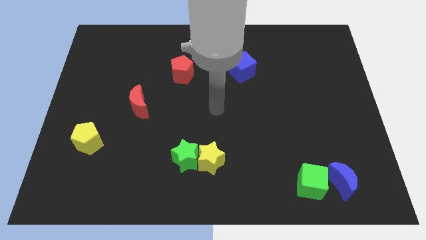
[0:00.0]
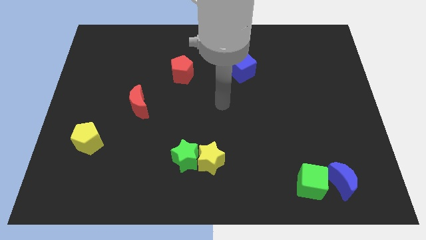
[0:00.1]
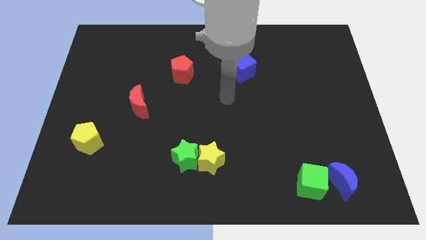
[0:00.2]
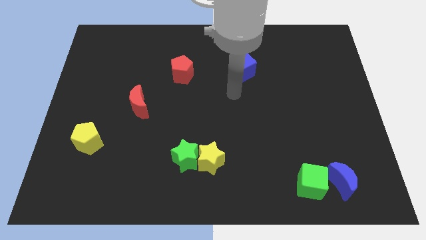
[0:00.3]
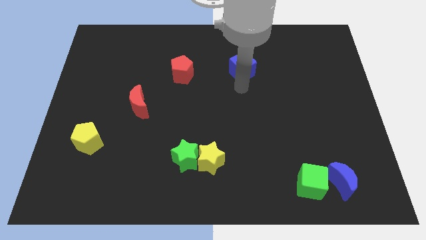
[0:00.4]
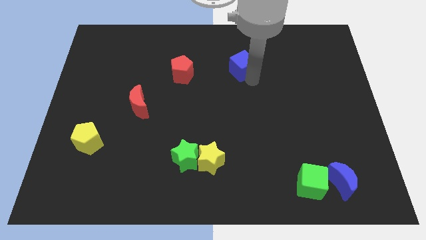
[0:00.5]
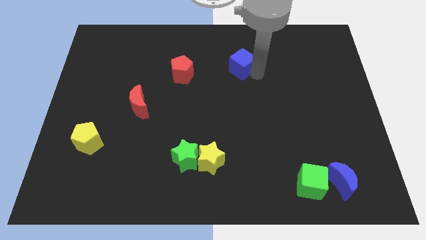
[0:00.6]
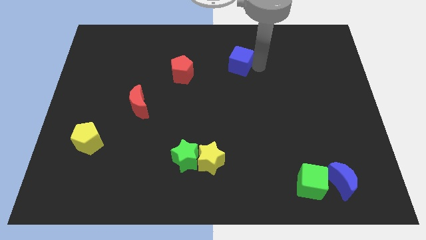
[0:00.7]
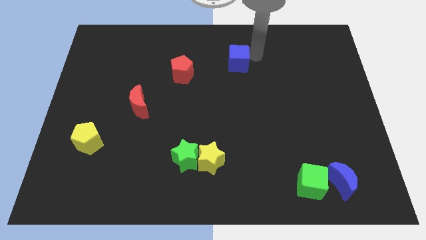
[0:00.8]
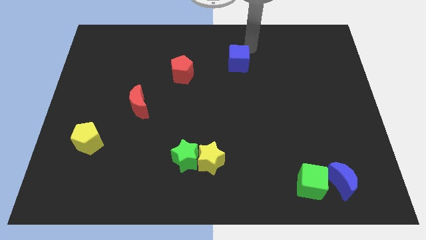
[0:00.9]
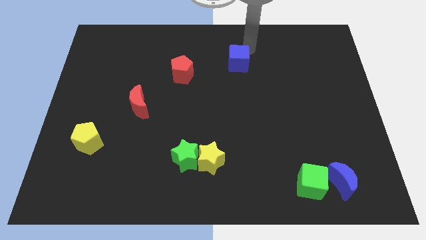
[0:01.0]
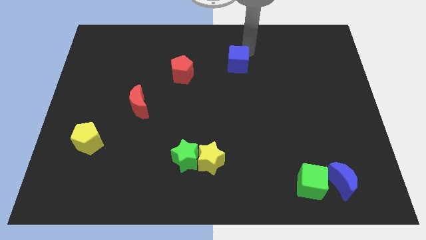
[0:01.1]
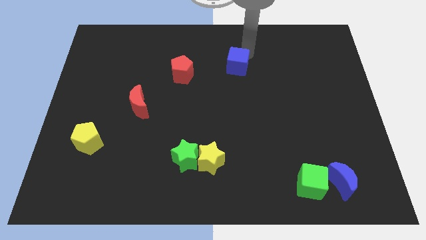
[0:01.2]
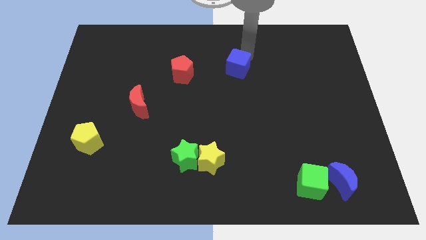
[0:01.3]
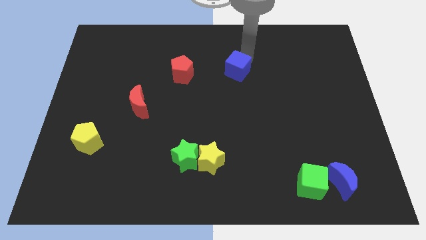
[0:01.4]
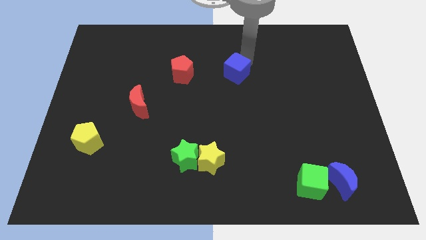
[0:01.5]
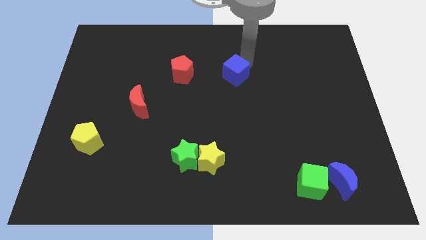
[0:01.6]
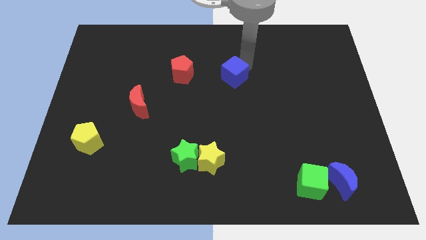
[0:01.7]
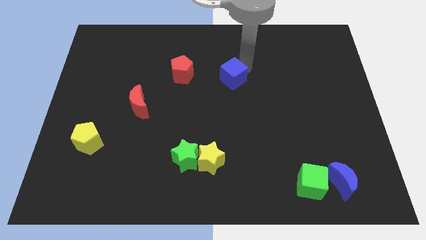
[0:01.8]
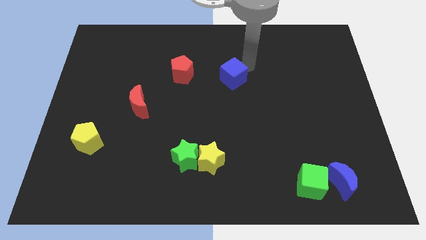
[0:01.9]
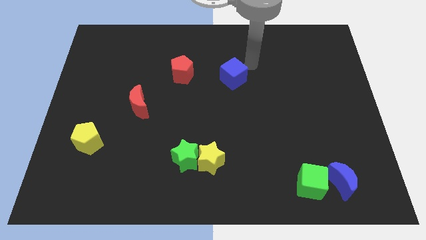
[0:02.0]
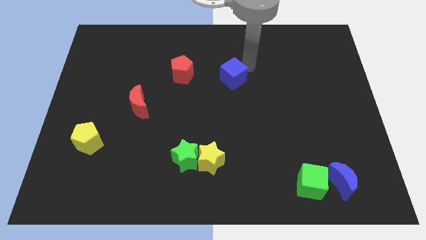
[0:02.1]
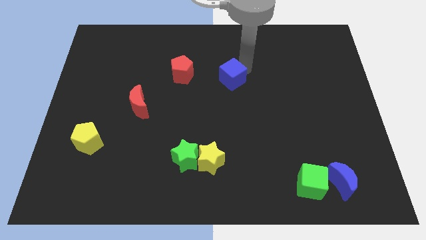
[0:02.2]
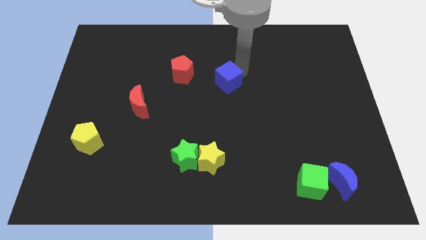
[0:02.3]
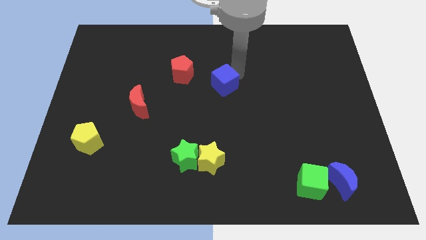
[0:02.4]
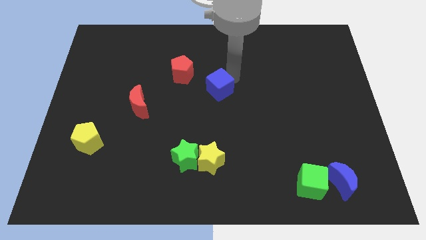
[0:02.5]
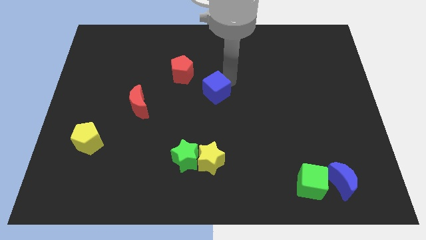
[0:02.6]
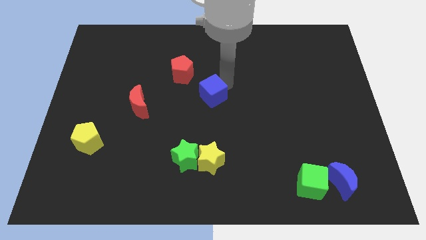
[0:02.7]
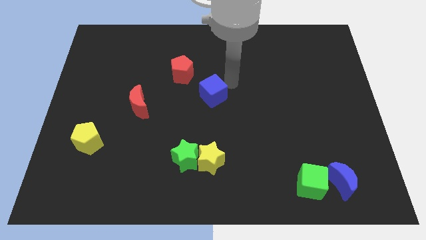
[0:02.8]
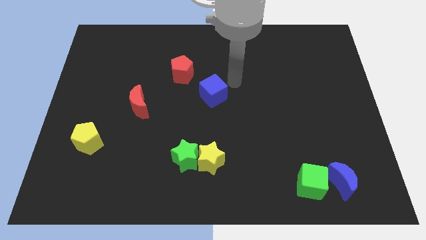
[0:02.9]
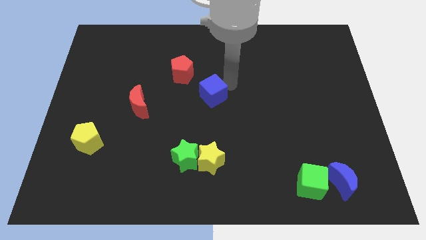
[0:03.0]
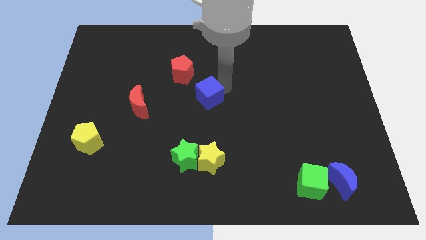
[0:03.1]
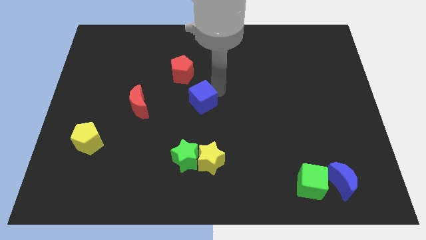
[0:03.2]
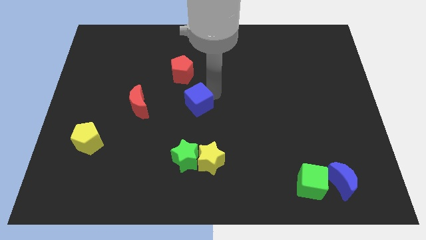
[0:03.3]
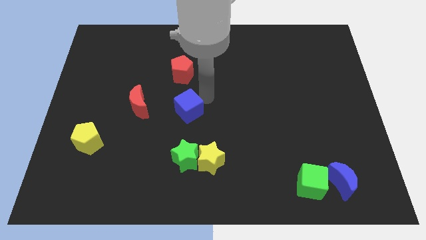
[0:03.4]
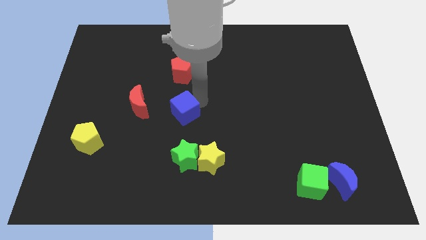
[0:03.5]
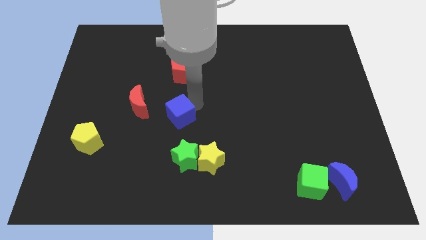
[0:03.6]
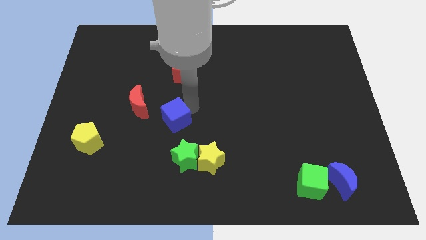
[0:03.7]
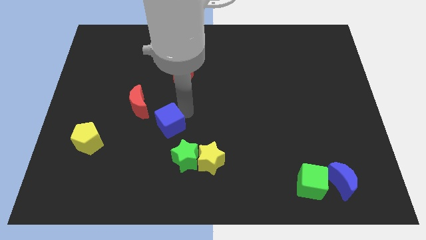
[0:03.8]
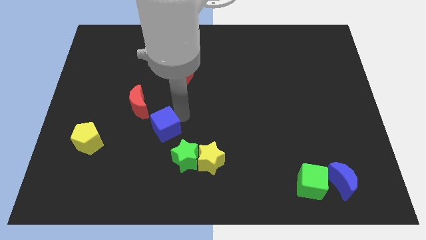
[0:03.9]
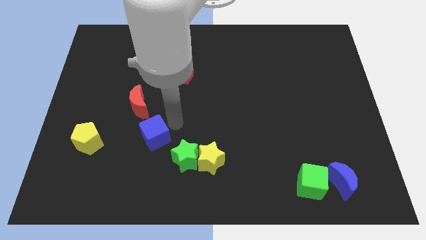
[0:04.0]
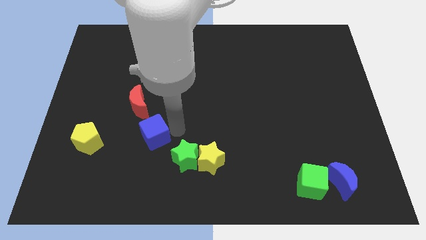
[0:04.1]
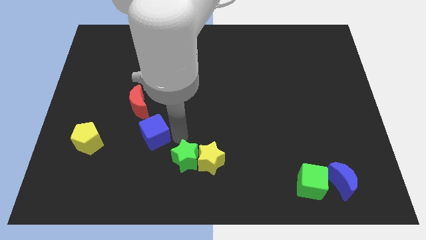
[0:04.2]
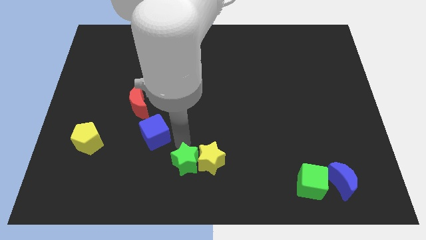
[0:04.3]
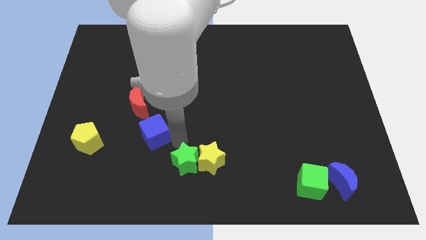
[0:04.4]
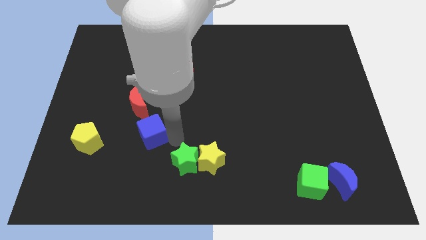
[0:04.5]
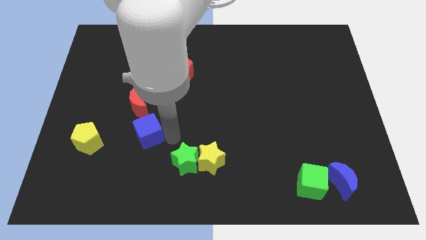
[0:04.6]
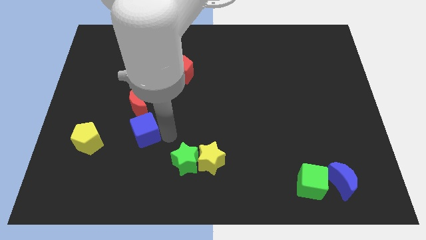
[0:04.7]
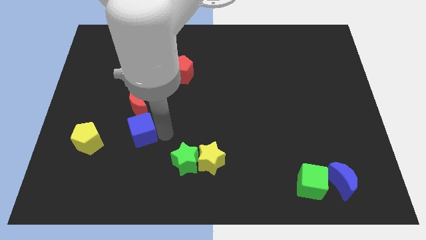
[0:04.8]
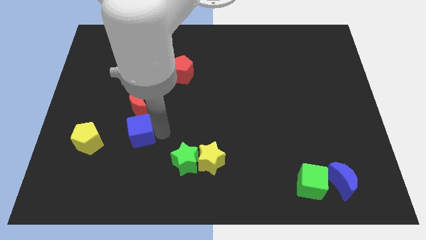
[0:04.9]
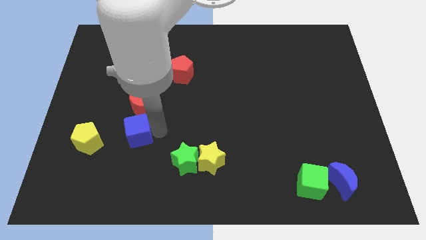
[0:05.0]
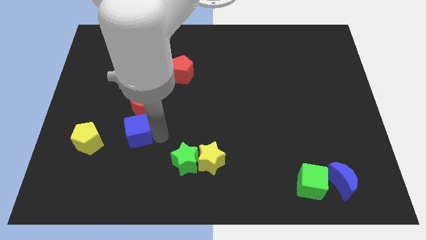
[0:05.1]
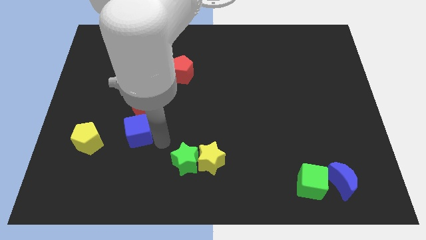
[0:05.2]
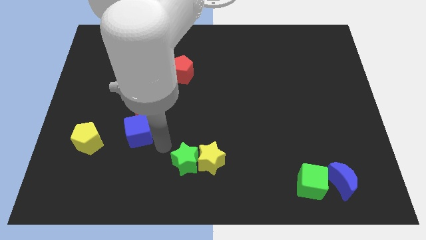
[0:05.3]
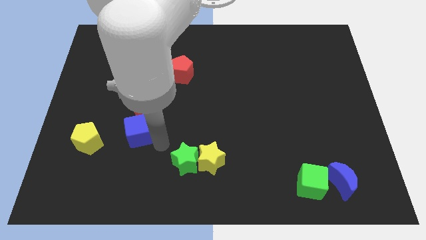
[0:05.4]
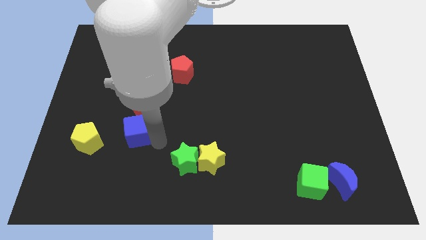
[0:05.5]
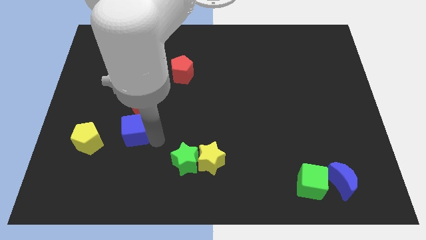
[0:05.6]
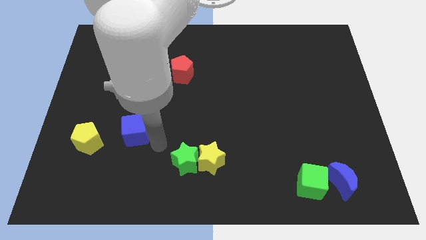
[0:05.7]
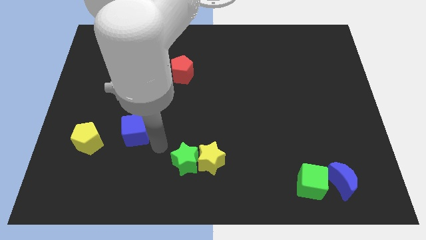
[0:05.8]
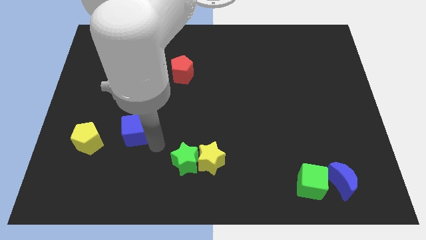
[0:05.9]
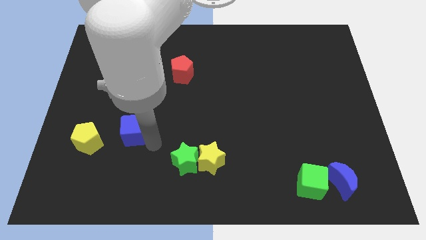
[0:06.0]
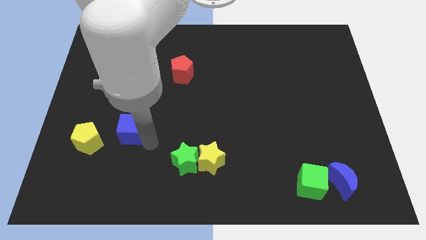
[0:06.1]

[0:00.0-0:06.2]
push the blue cube to the top right of the yellow pentagon

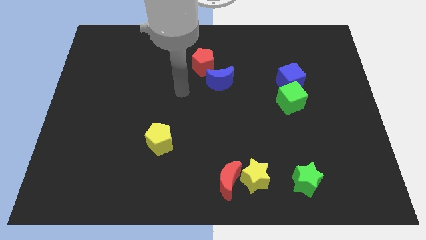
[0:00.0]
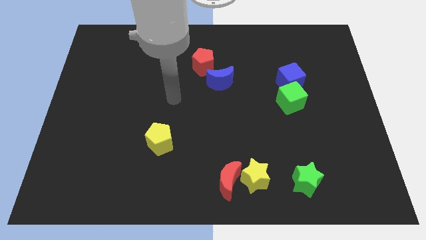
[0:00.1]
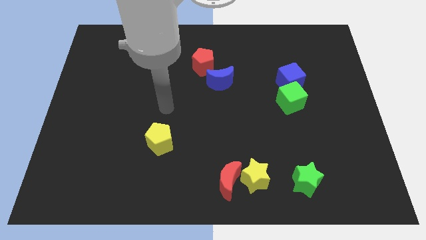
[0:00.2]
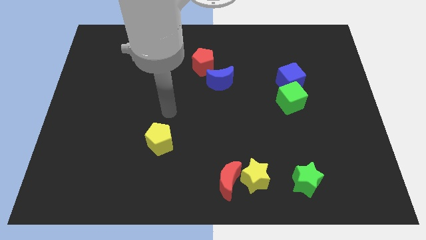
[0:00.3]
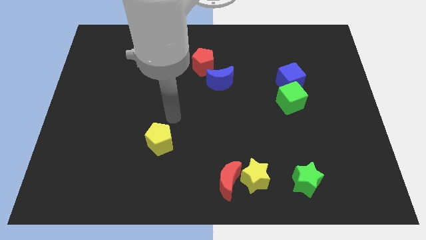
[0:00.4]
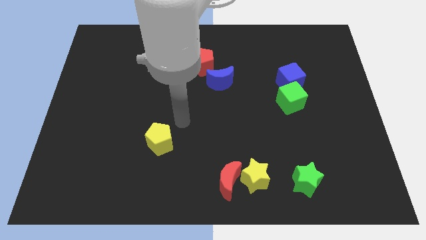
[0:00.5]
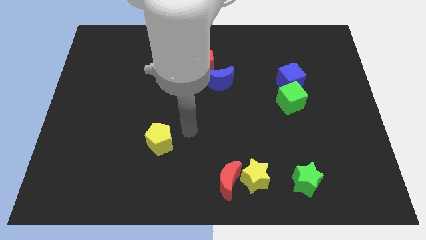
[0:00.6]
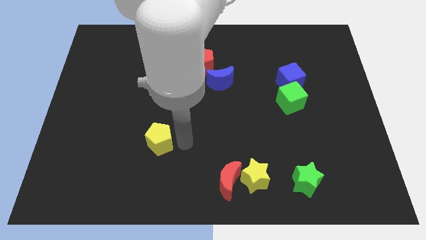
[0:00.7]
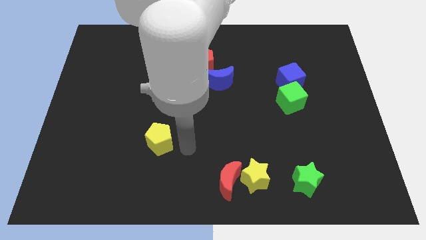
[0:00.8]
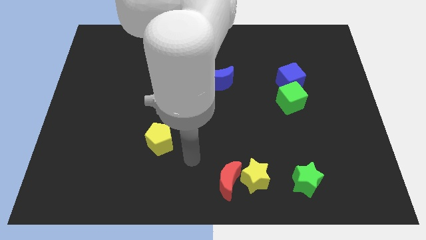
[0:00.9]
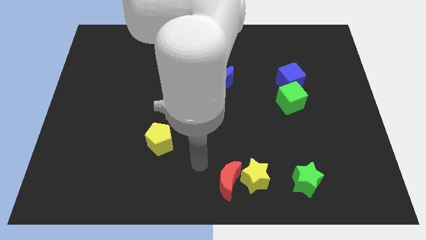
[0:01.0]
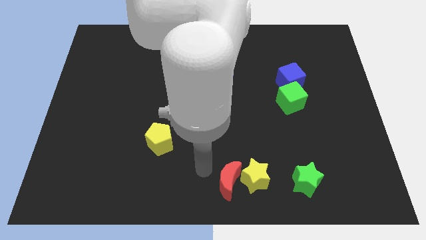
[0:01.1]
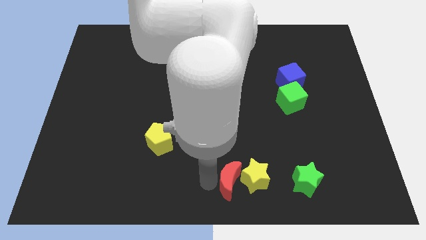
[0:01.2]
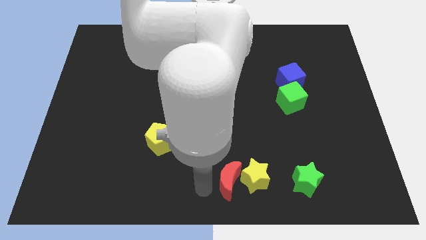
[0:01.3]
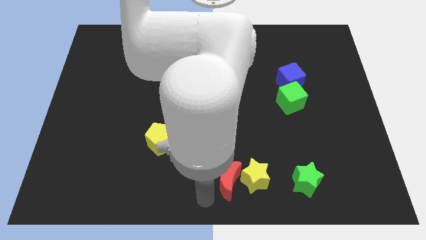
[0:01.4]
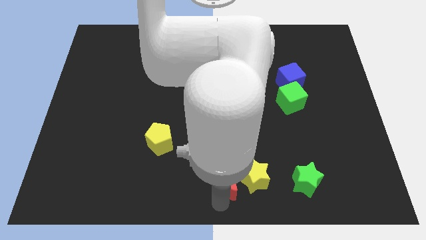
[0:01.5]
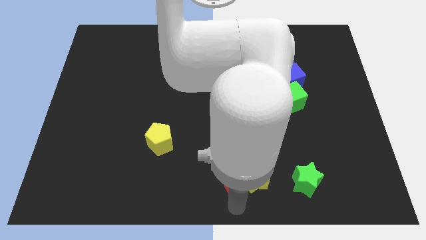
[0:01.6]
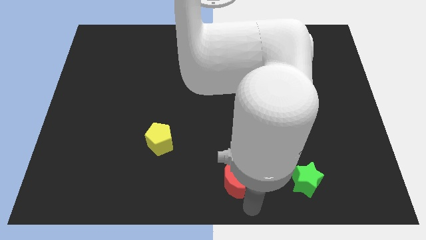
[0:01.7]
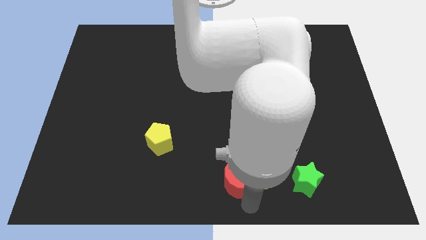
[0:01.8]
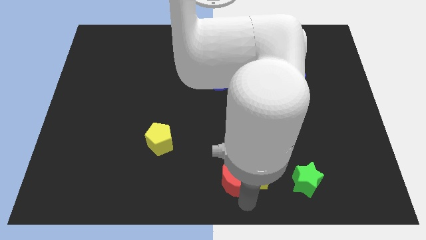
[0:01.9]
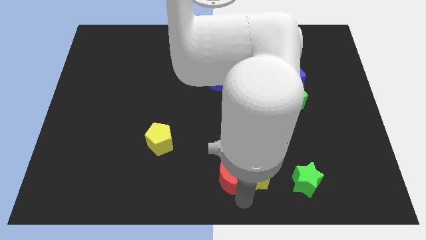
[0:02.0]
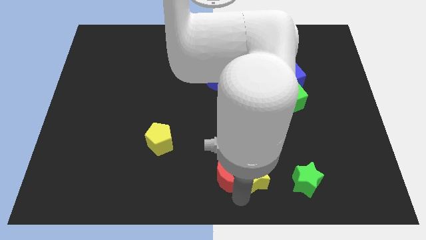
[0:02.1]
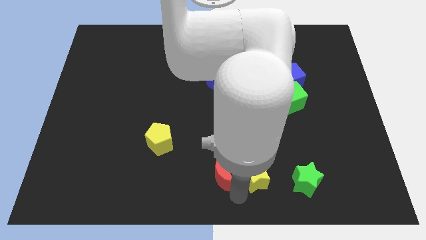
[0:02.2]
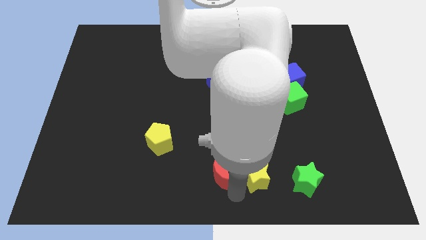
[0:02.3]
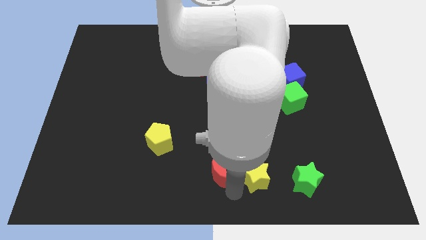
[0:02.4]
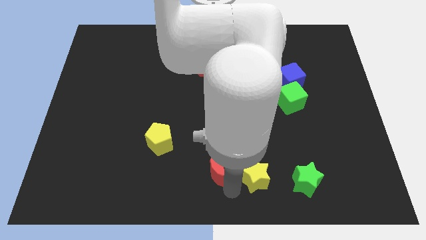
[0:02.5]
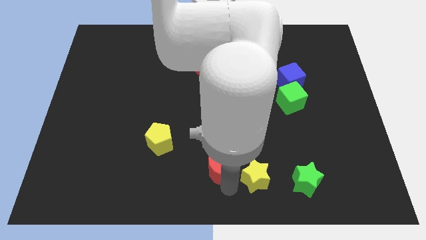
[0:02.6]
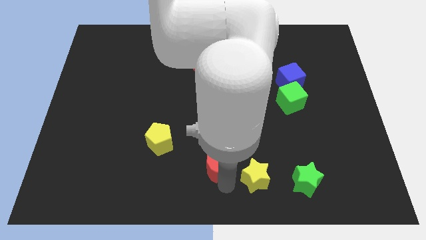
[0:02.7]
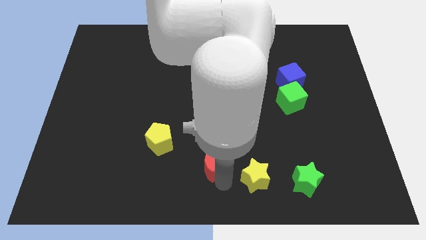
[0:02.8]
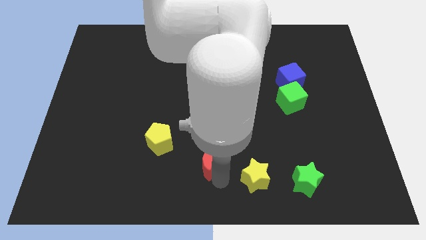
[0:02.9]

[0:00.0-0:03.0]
slide the red moon just right of the yellow pentagon
